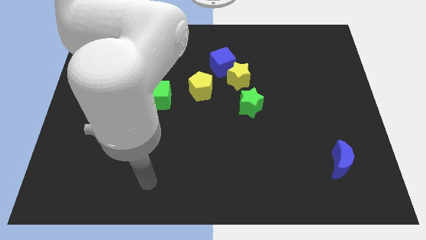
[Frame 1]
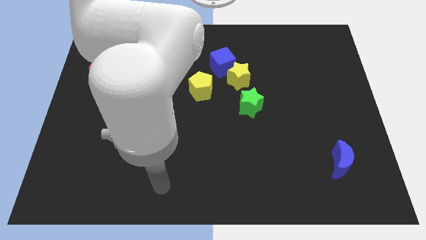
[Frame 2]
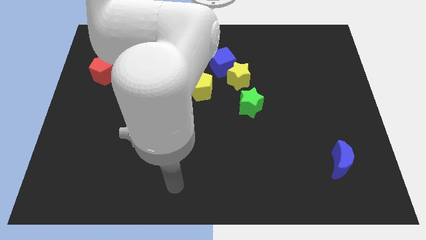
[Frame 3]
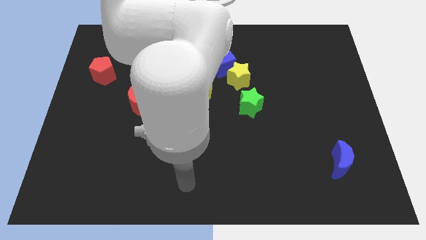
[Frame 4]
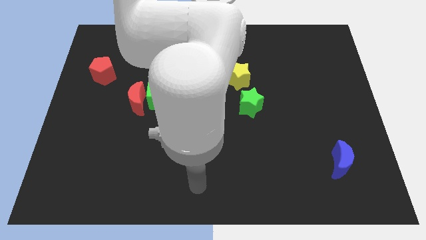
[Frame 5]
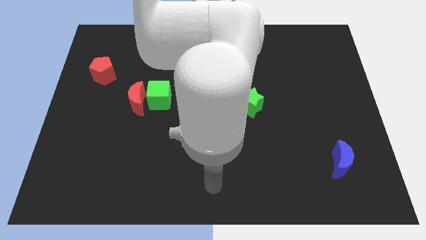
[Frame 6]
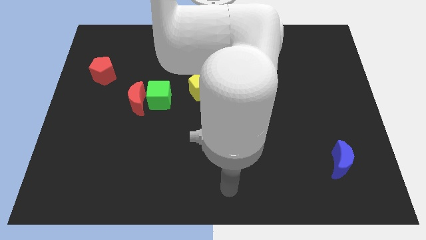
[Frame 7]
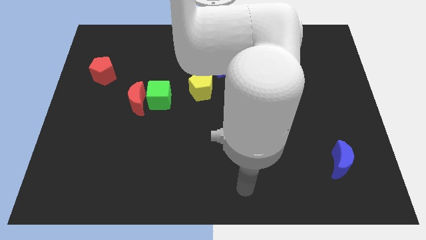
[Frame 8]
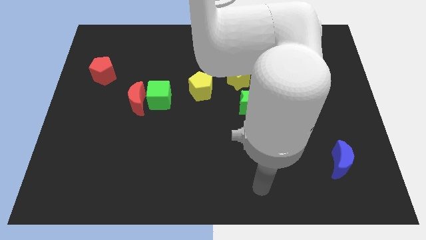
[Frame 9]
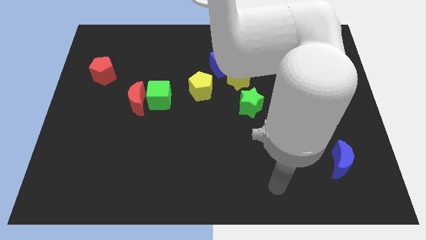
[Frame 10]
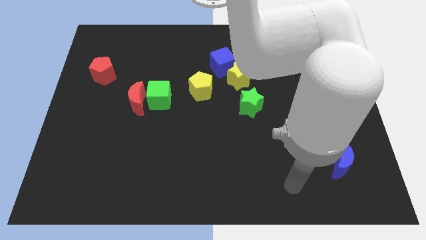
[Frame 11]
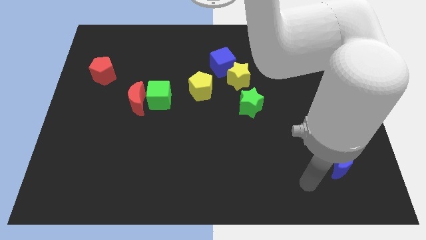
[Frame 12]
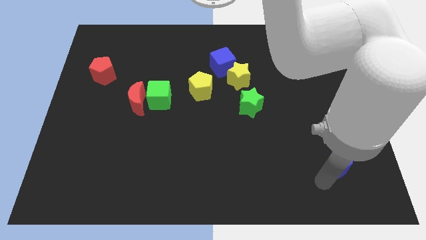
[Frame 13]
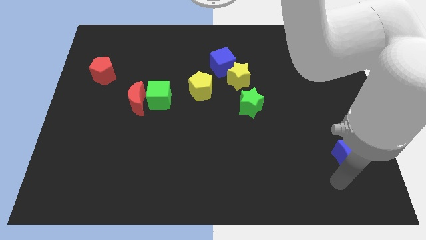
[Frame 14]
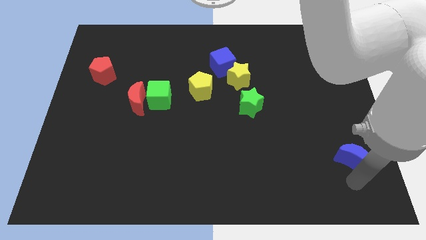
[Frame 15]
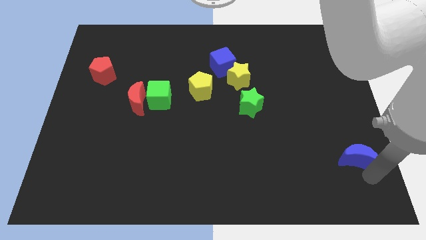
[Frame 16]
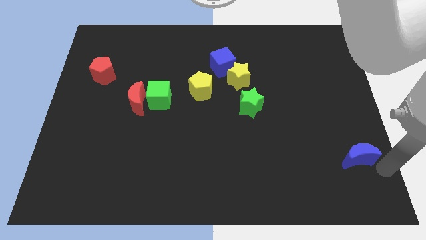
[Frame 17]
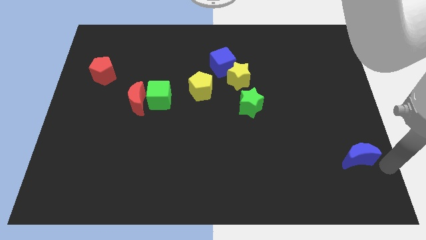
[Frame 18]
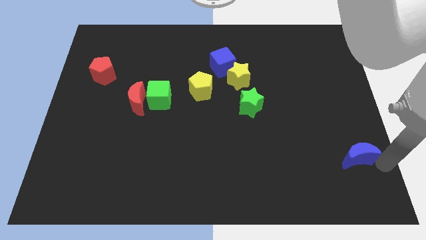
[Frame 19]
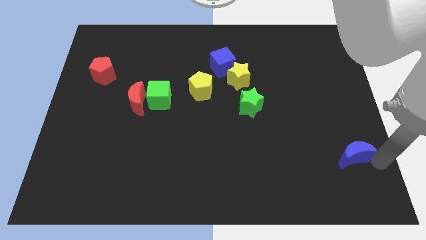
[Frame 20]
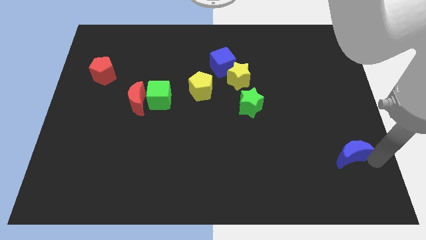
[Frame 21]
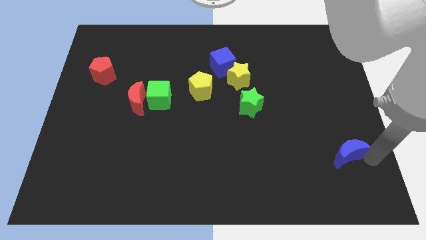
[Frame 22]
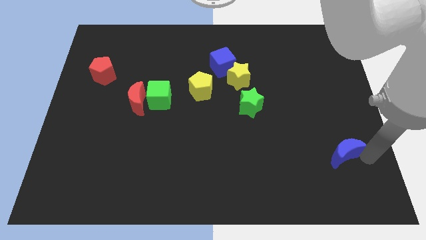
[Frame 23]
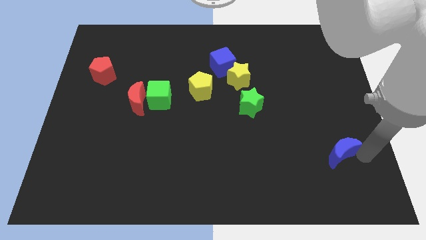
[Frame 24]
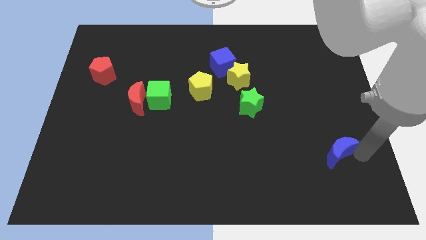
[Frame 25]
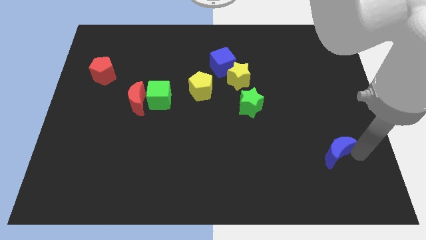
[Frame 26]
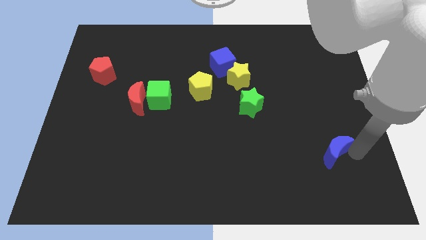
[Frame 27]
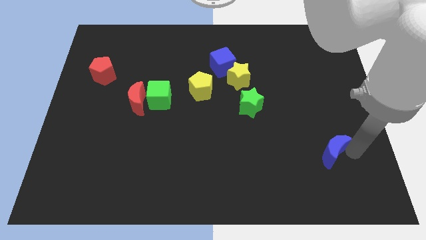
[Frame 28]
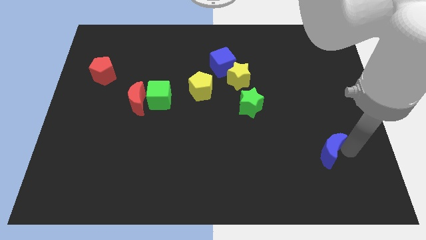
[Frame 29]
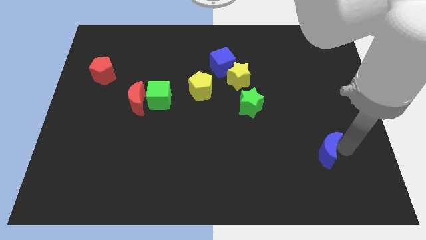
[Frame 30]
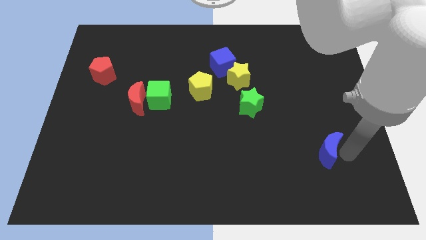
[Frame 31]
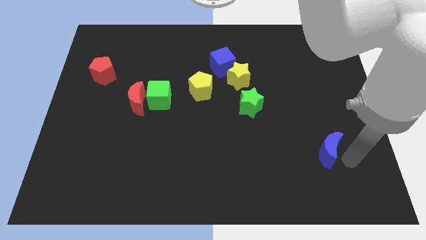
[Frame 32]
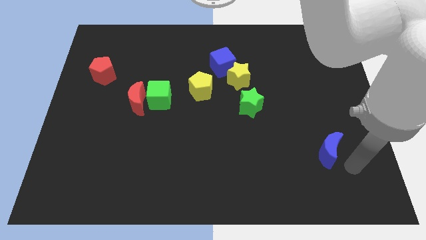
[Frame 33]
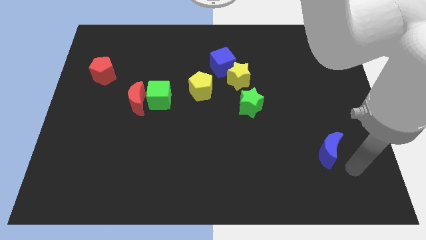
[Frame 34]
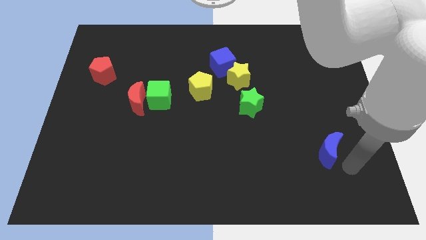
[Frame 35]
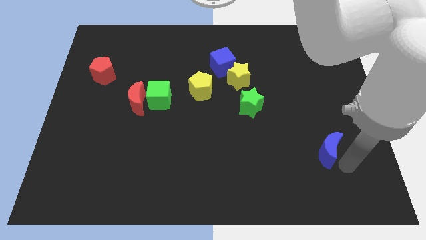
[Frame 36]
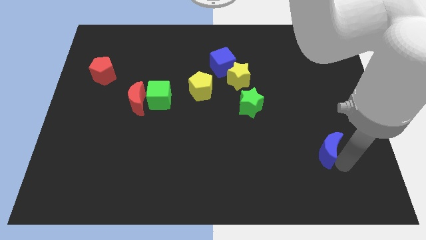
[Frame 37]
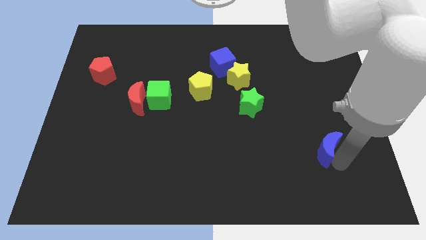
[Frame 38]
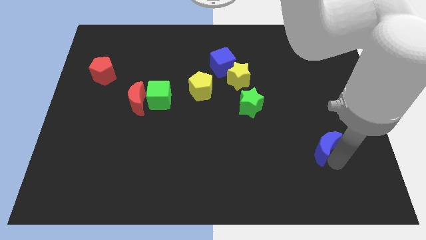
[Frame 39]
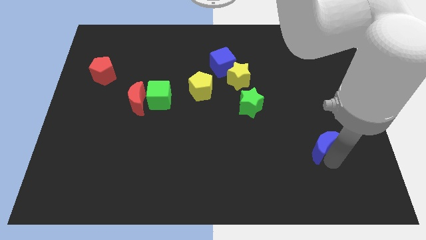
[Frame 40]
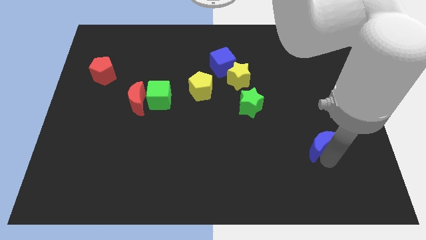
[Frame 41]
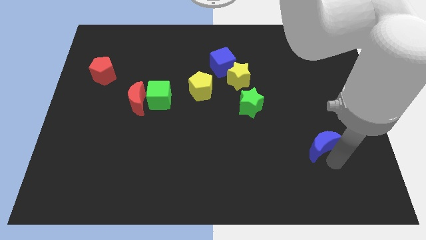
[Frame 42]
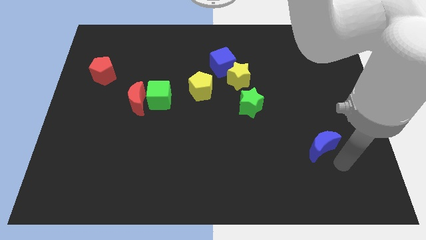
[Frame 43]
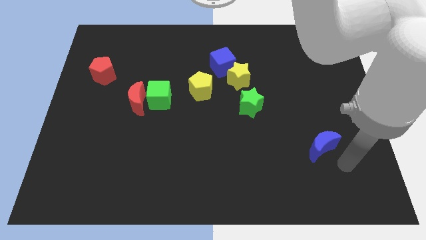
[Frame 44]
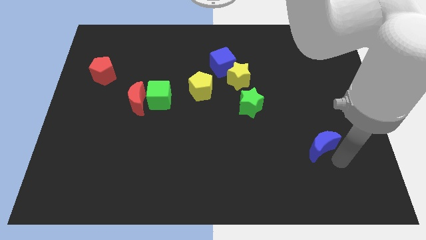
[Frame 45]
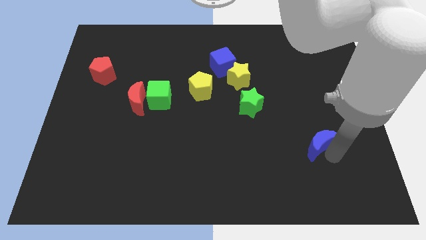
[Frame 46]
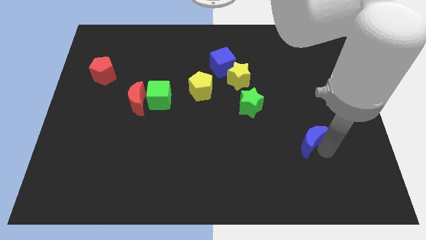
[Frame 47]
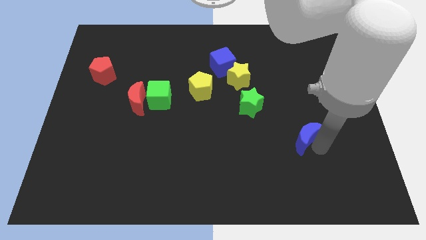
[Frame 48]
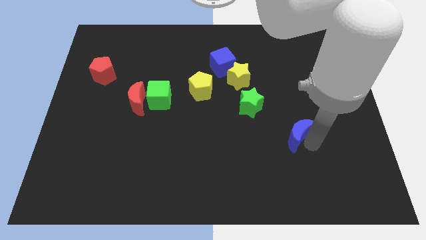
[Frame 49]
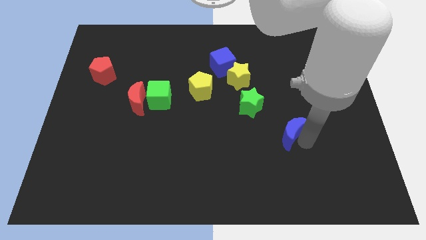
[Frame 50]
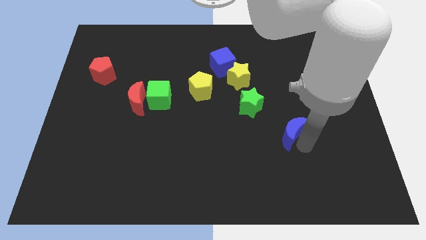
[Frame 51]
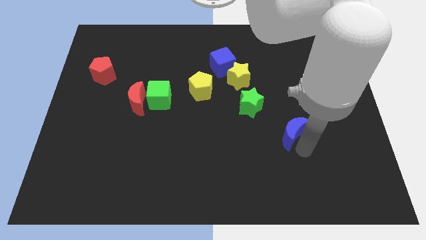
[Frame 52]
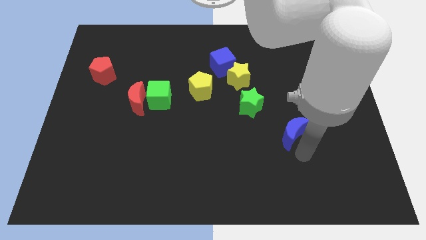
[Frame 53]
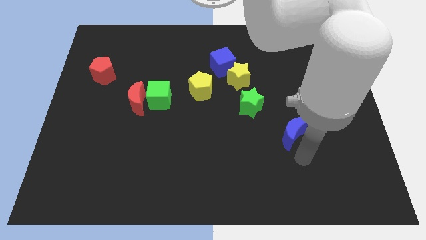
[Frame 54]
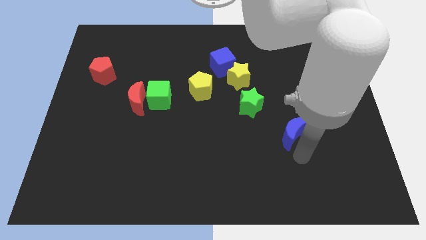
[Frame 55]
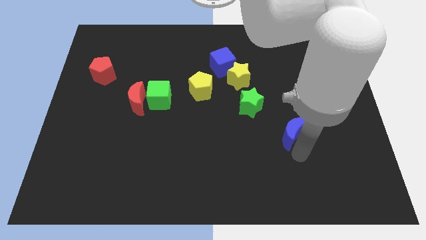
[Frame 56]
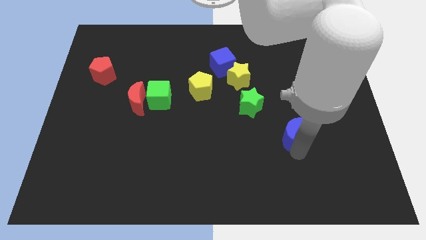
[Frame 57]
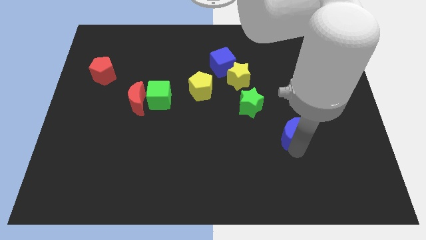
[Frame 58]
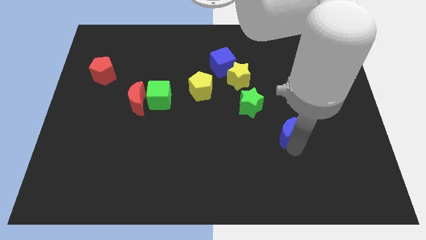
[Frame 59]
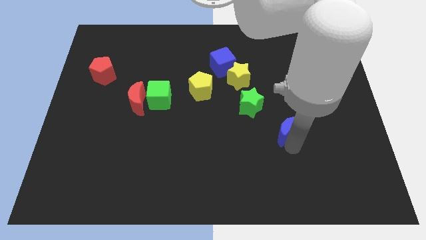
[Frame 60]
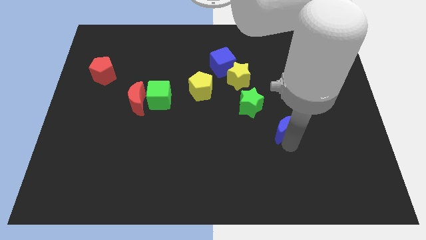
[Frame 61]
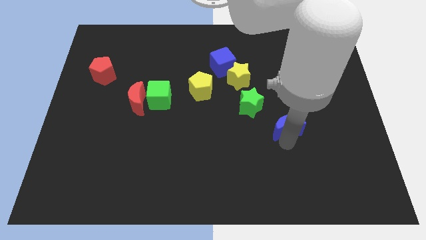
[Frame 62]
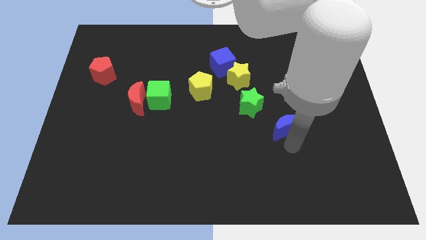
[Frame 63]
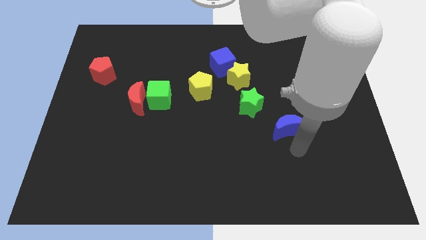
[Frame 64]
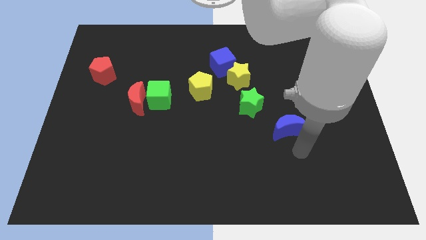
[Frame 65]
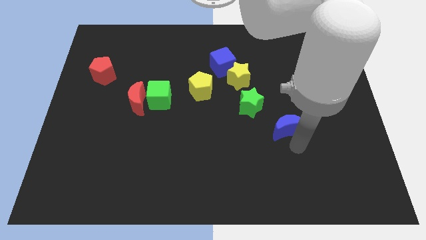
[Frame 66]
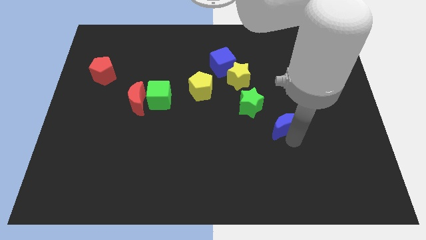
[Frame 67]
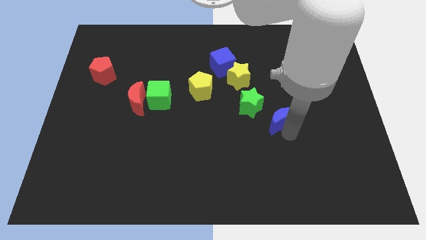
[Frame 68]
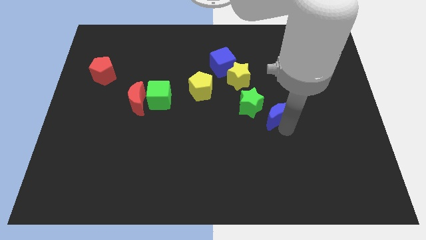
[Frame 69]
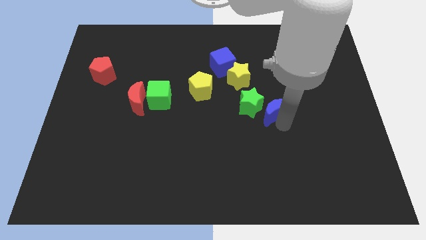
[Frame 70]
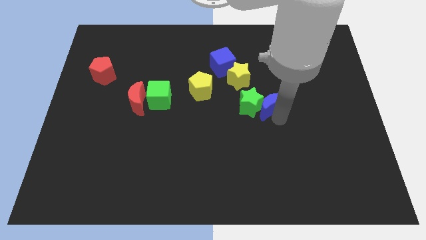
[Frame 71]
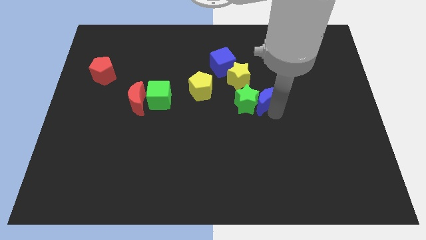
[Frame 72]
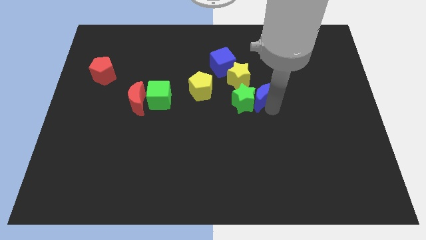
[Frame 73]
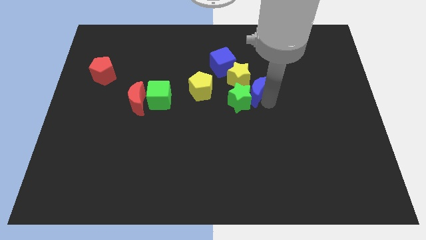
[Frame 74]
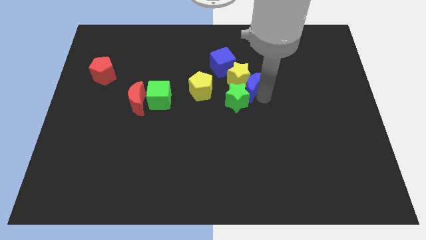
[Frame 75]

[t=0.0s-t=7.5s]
move the blue moon close to the yellow star
